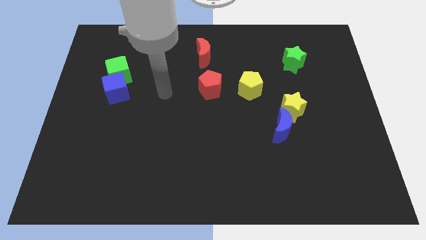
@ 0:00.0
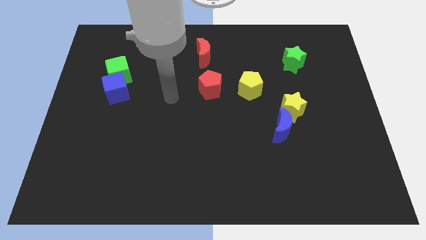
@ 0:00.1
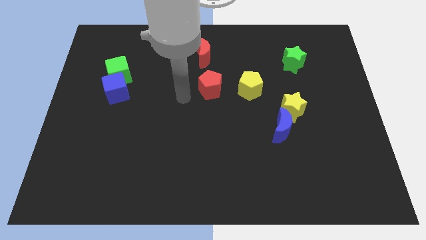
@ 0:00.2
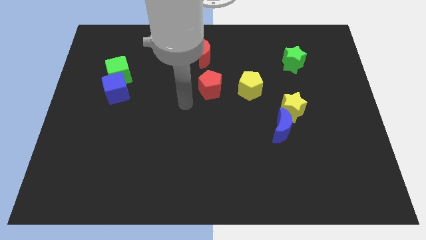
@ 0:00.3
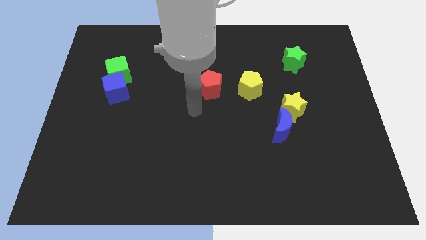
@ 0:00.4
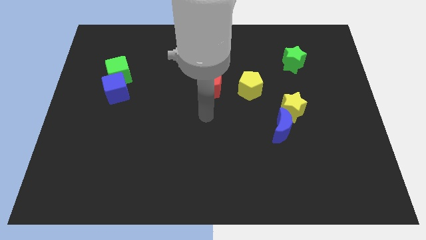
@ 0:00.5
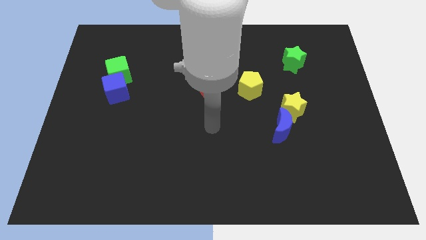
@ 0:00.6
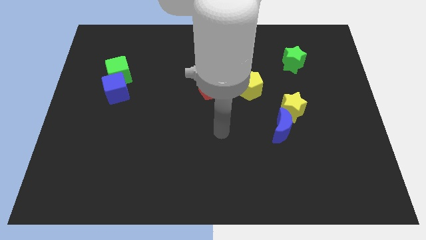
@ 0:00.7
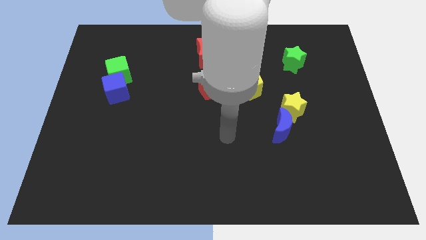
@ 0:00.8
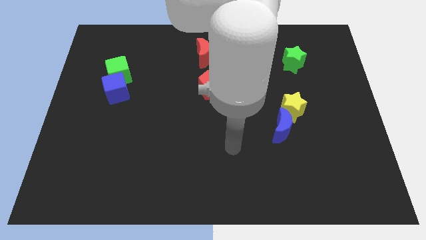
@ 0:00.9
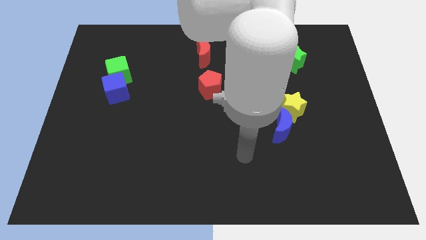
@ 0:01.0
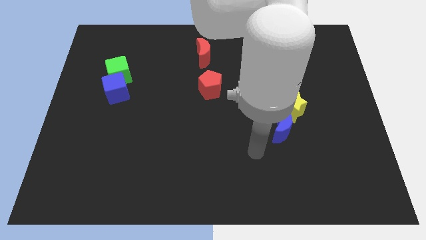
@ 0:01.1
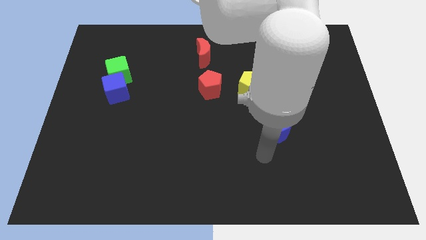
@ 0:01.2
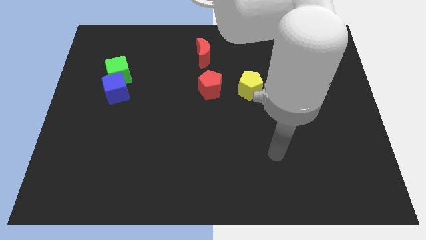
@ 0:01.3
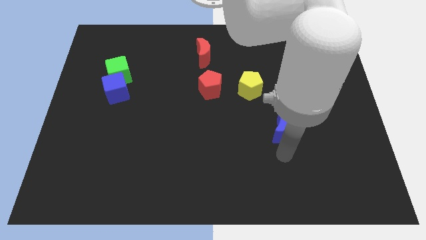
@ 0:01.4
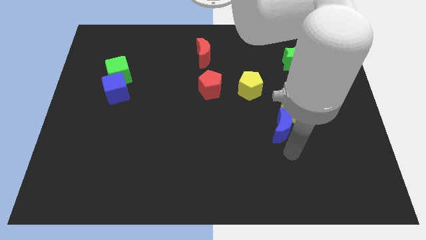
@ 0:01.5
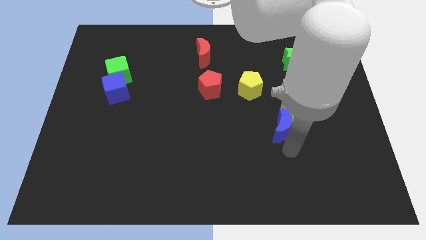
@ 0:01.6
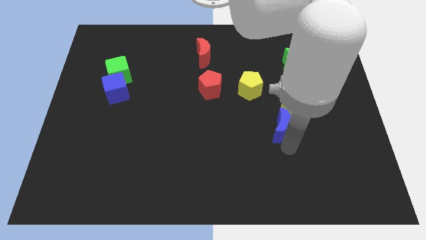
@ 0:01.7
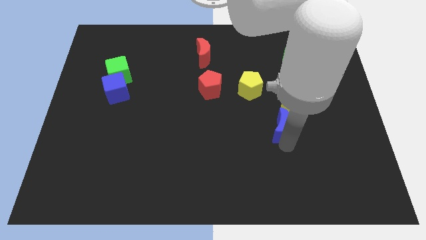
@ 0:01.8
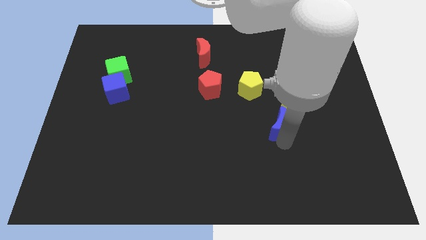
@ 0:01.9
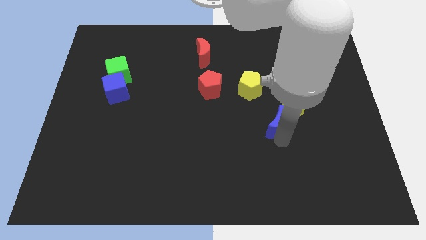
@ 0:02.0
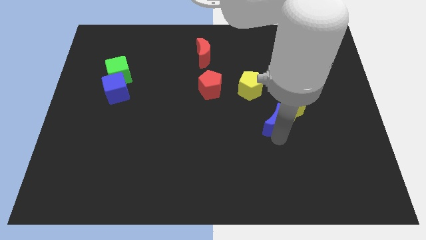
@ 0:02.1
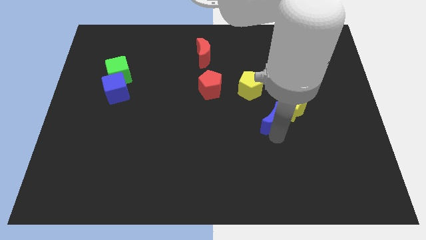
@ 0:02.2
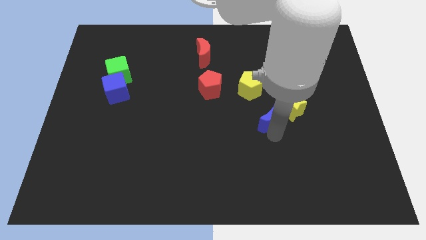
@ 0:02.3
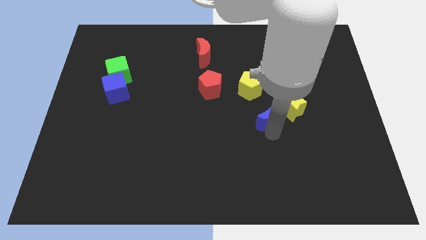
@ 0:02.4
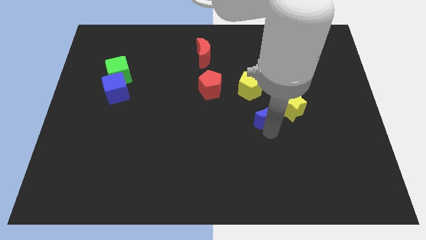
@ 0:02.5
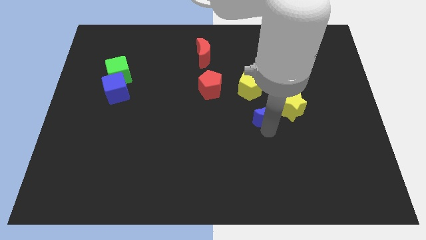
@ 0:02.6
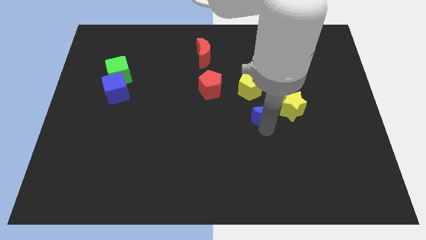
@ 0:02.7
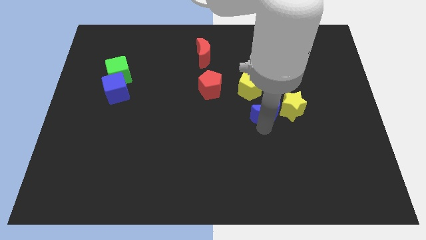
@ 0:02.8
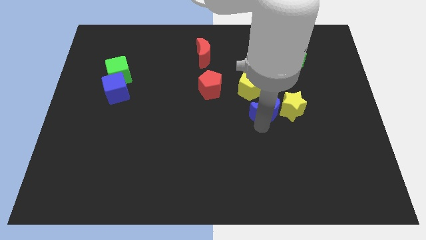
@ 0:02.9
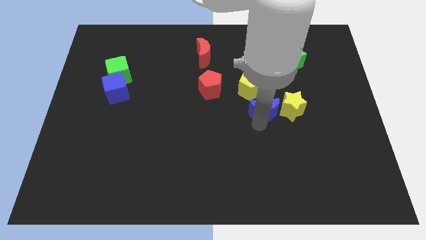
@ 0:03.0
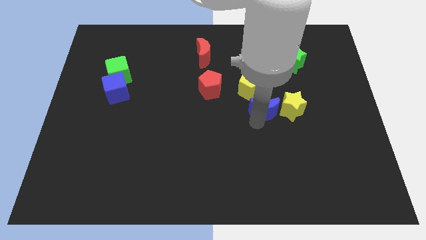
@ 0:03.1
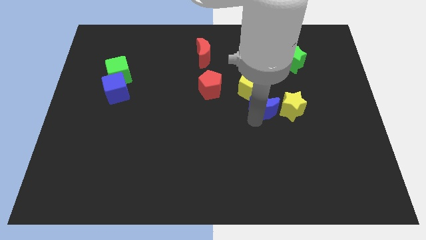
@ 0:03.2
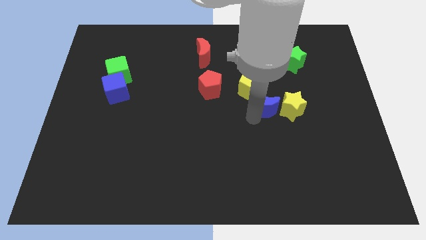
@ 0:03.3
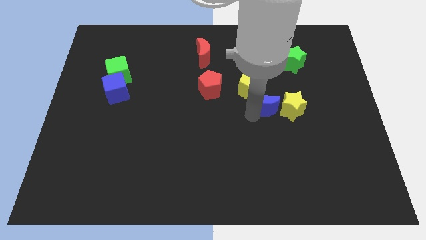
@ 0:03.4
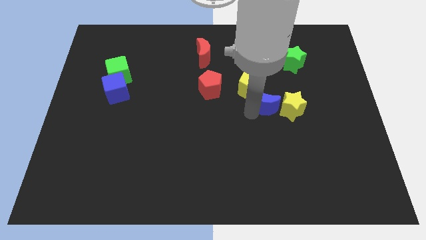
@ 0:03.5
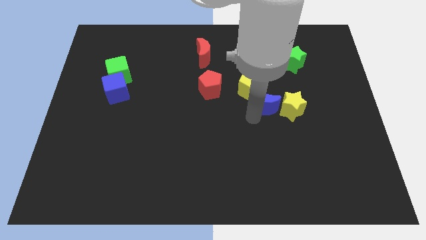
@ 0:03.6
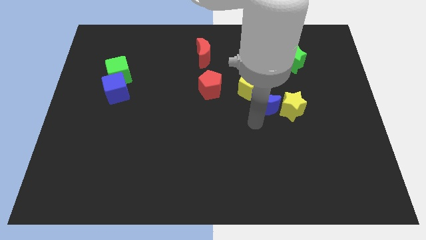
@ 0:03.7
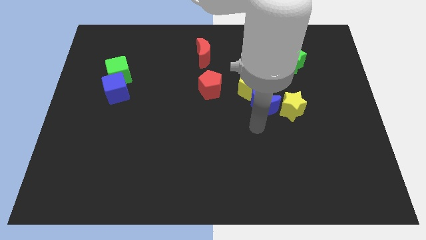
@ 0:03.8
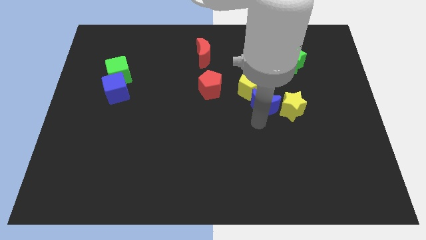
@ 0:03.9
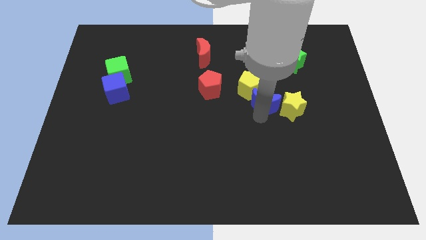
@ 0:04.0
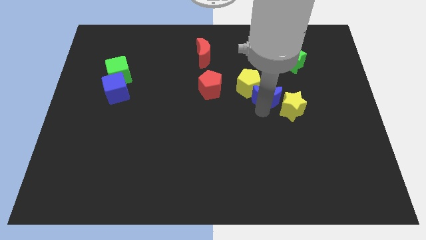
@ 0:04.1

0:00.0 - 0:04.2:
push the blue moon to the right of the red pentagon

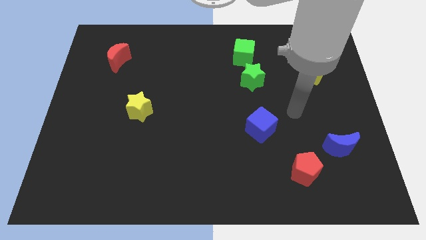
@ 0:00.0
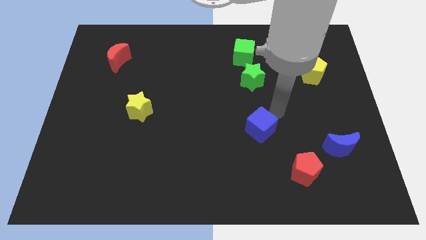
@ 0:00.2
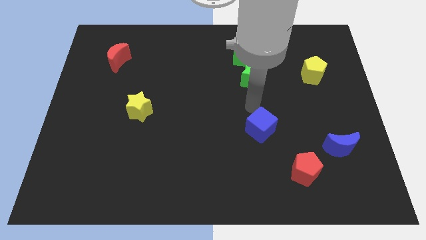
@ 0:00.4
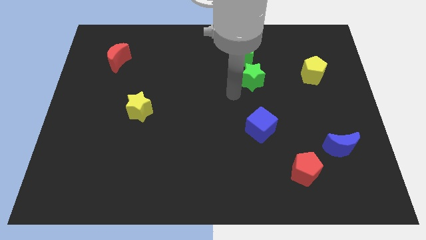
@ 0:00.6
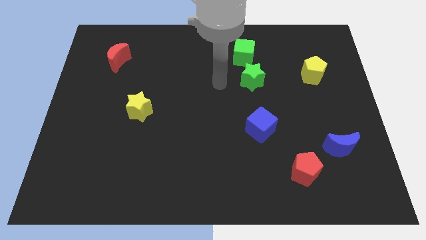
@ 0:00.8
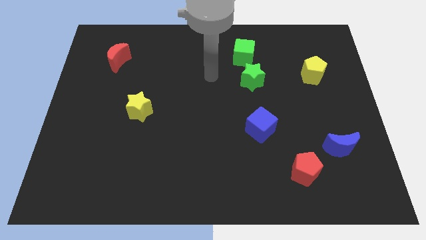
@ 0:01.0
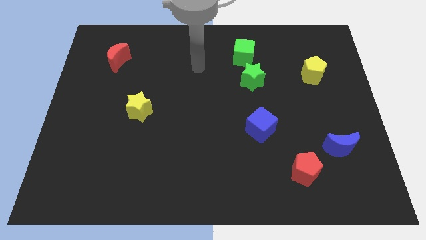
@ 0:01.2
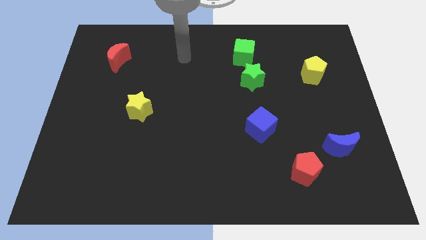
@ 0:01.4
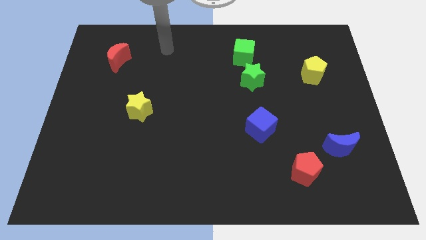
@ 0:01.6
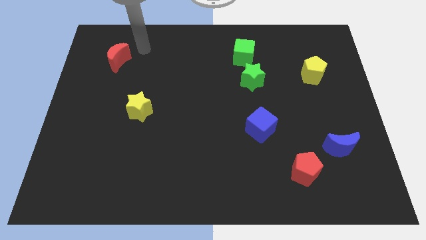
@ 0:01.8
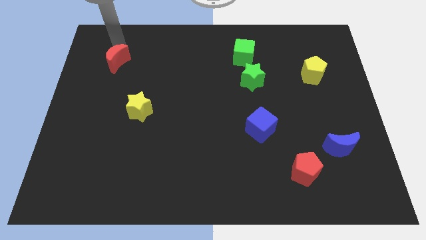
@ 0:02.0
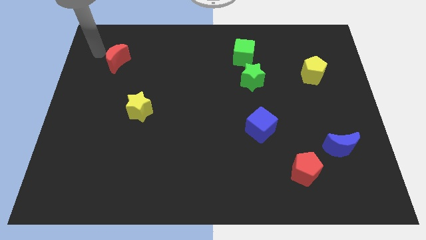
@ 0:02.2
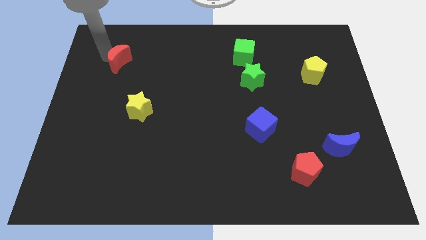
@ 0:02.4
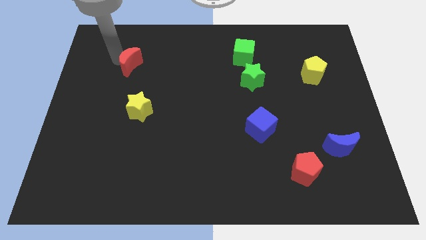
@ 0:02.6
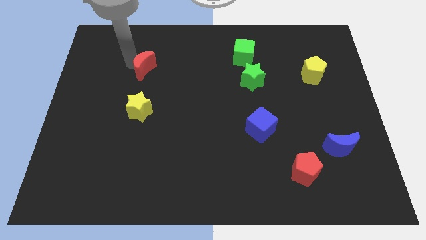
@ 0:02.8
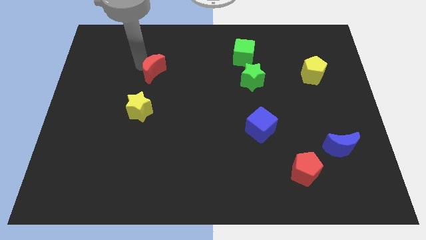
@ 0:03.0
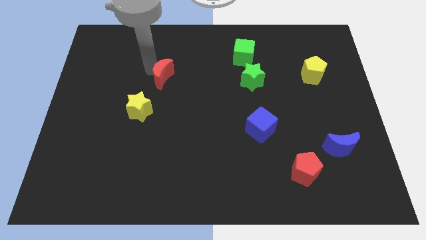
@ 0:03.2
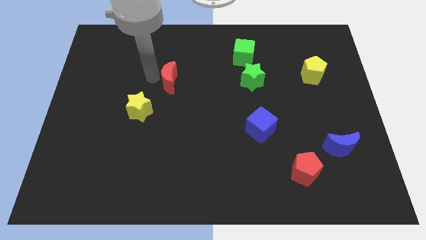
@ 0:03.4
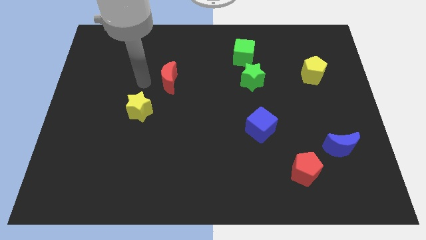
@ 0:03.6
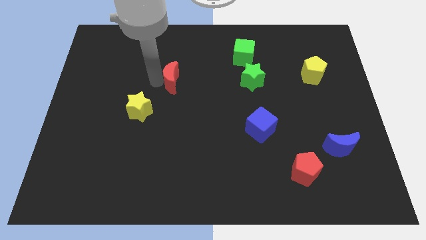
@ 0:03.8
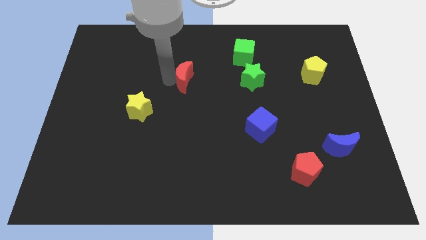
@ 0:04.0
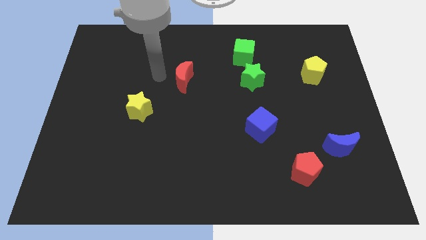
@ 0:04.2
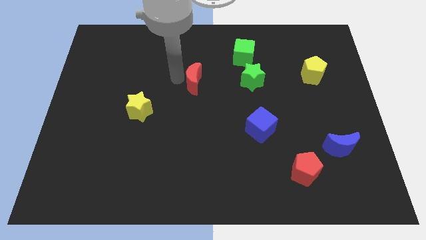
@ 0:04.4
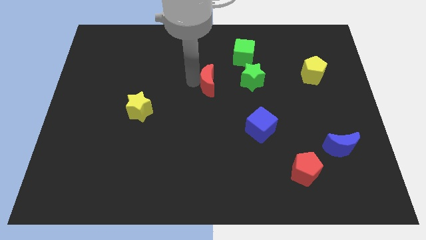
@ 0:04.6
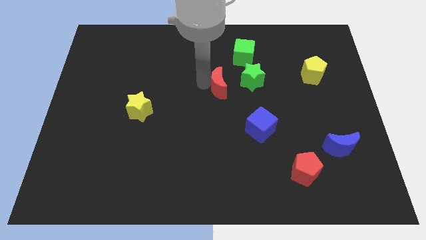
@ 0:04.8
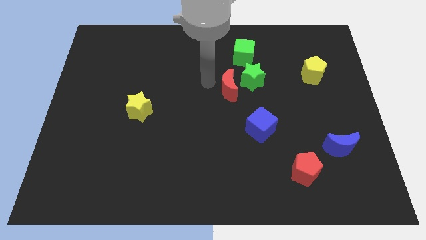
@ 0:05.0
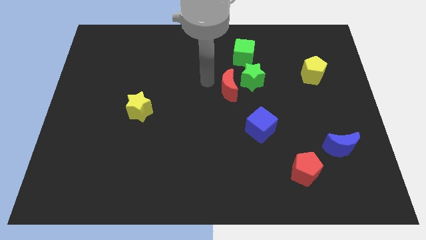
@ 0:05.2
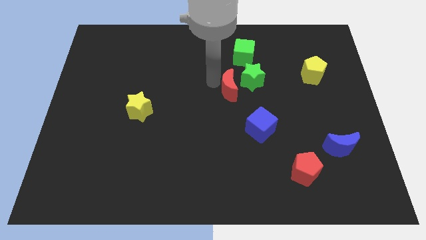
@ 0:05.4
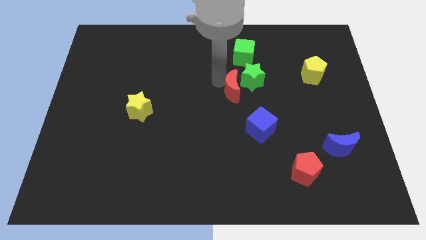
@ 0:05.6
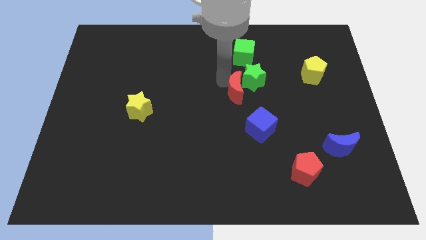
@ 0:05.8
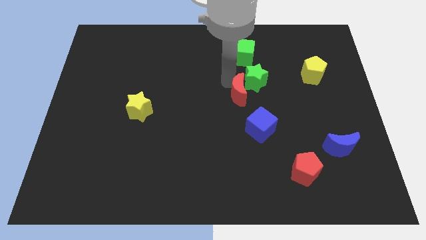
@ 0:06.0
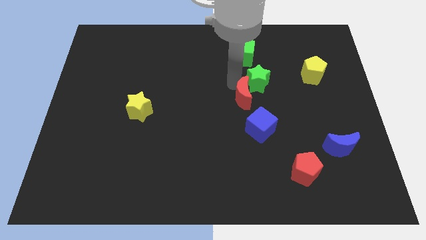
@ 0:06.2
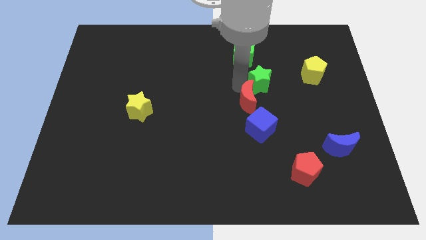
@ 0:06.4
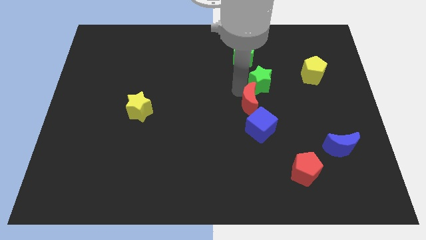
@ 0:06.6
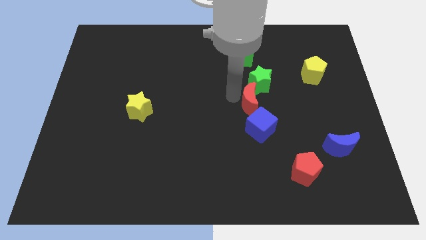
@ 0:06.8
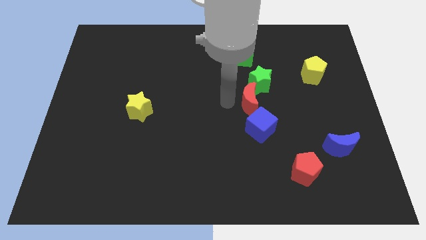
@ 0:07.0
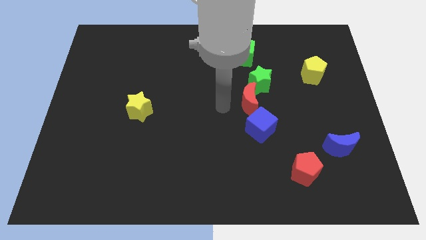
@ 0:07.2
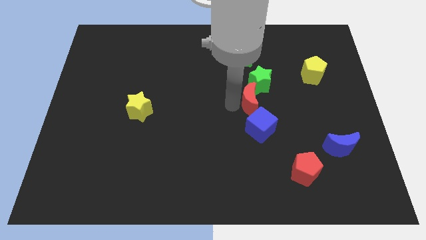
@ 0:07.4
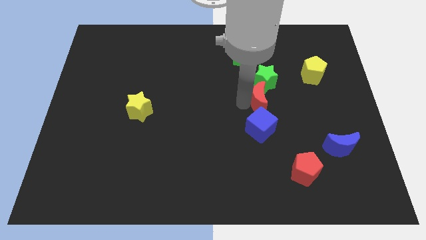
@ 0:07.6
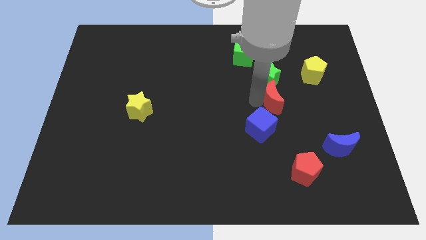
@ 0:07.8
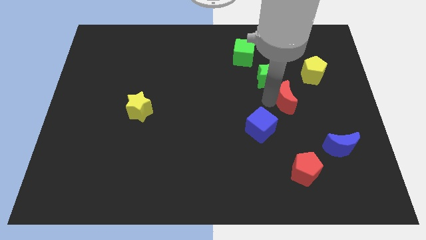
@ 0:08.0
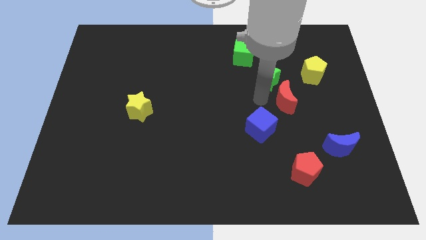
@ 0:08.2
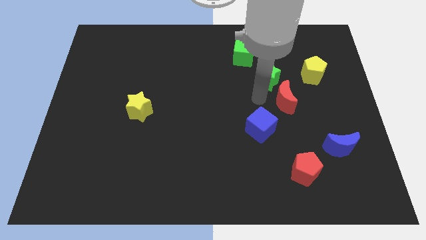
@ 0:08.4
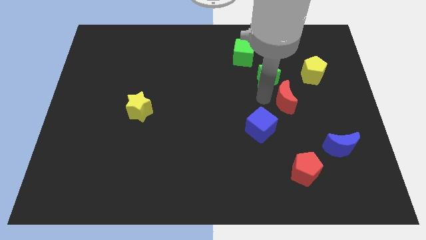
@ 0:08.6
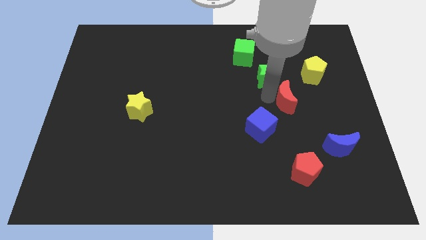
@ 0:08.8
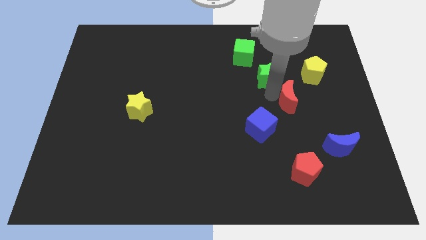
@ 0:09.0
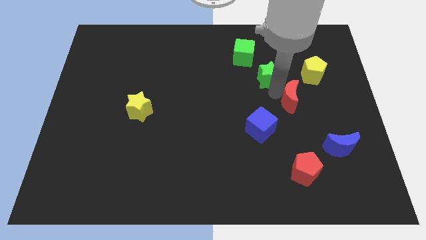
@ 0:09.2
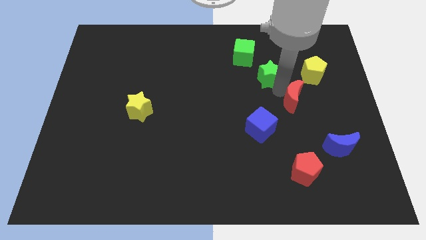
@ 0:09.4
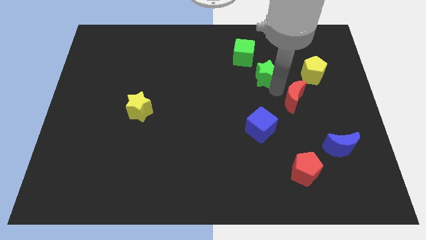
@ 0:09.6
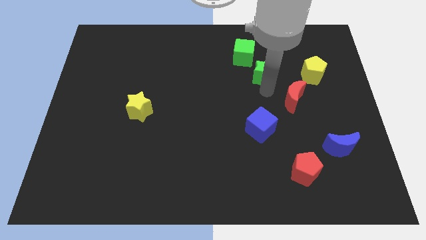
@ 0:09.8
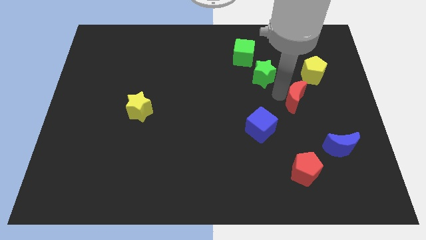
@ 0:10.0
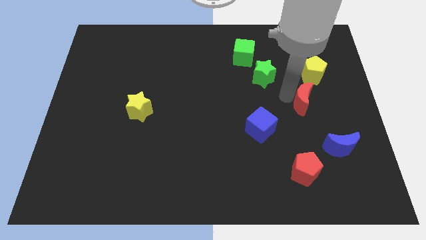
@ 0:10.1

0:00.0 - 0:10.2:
slide the red moon below the yellow pentagon
